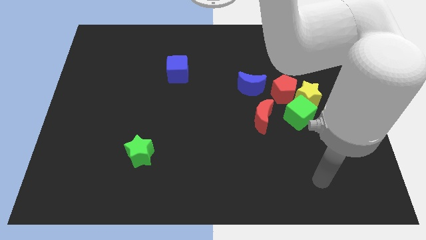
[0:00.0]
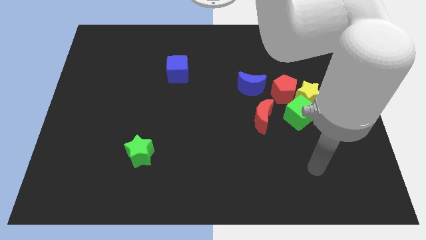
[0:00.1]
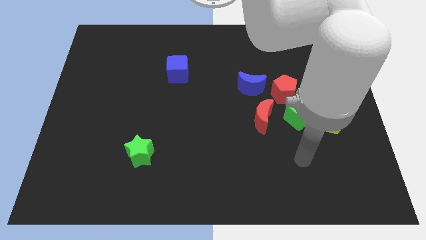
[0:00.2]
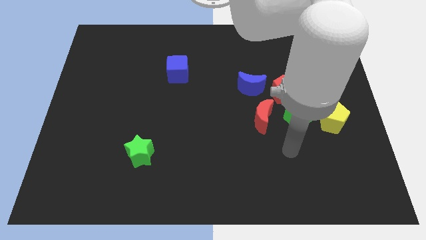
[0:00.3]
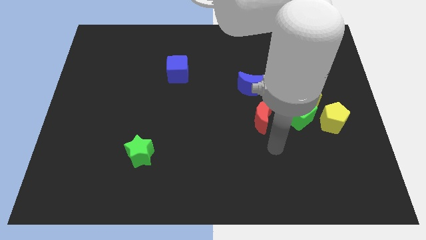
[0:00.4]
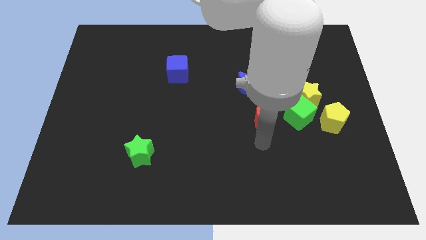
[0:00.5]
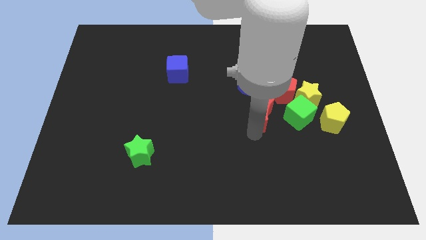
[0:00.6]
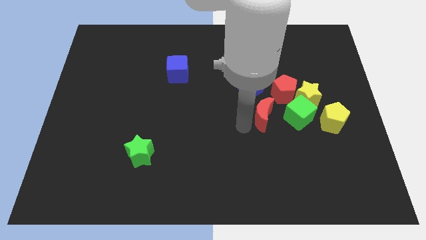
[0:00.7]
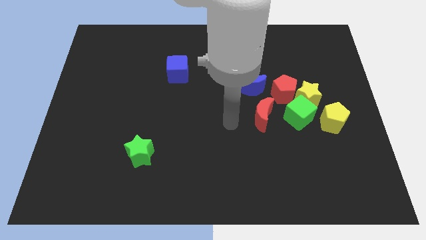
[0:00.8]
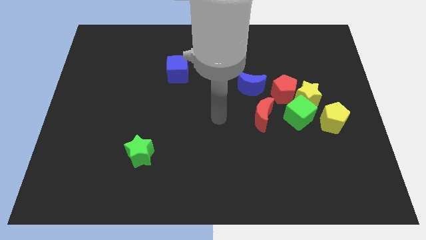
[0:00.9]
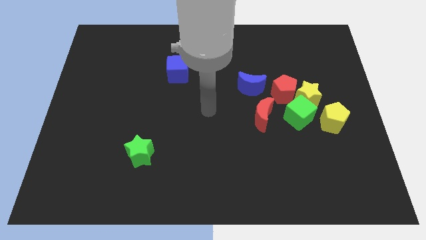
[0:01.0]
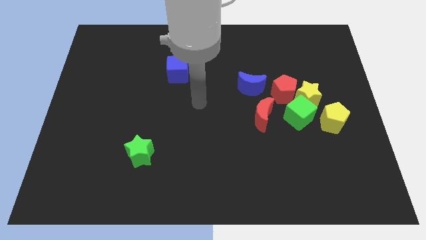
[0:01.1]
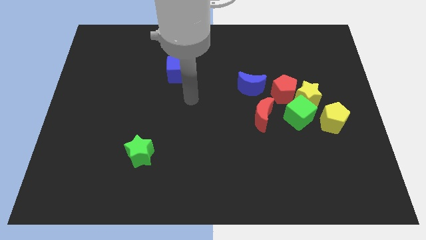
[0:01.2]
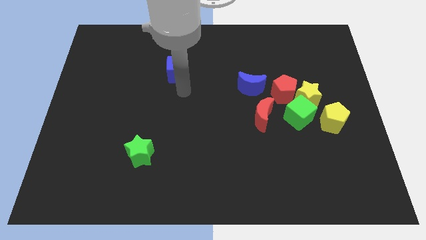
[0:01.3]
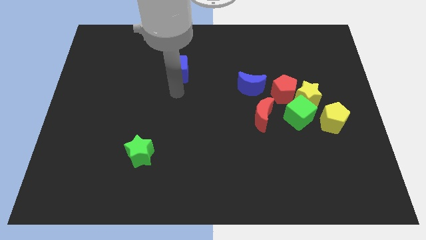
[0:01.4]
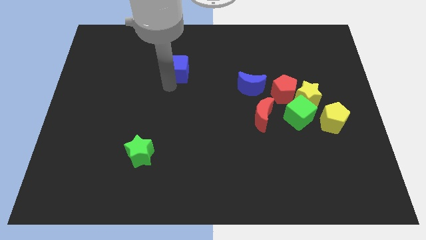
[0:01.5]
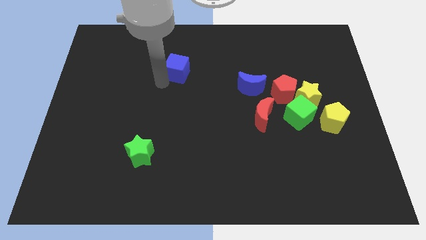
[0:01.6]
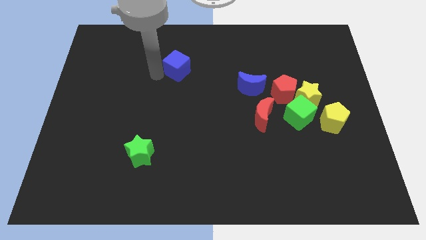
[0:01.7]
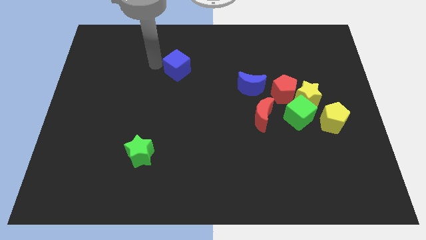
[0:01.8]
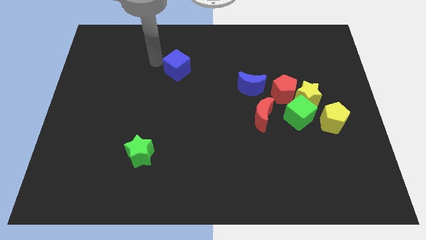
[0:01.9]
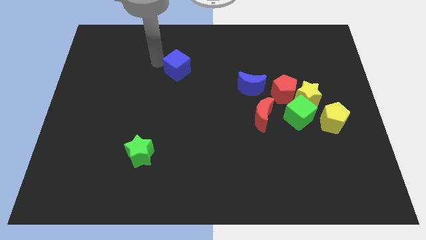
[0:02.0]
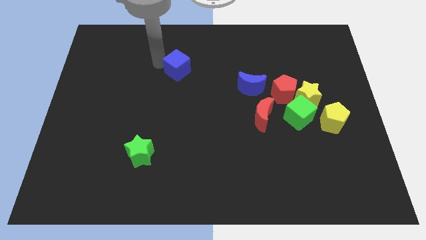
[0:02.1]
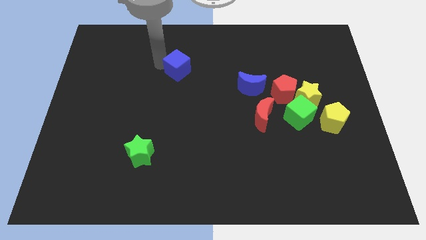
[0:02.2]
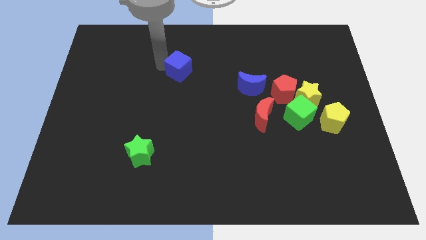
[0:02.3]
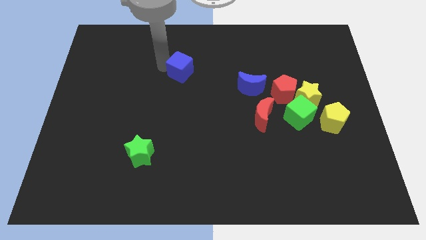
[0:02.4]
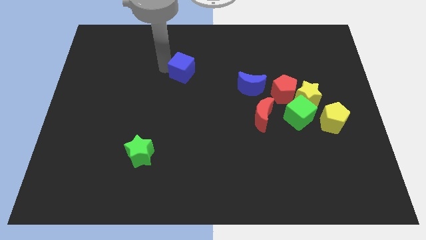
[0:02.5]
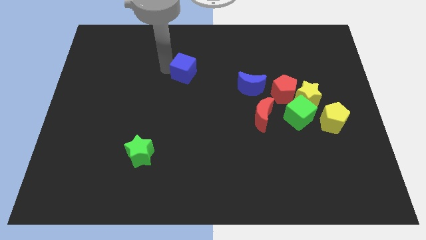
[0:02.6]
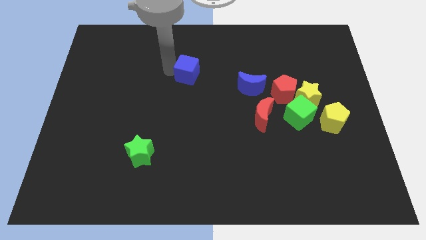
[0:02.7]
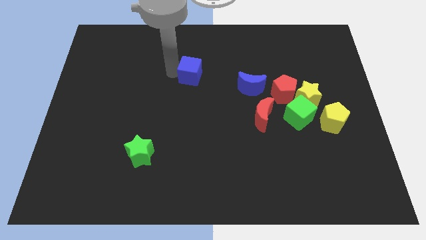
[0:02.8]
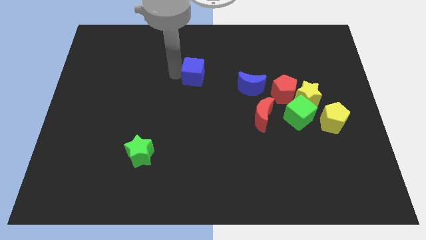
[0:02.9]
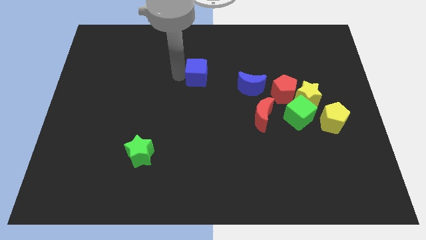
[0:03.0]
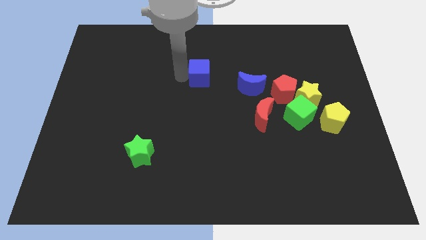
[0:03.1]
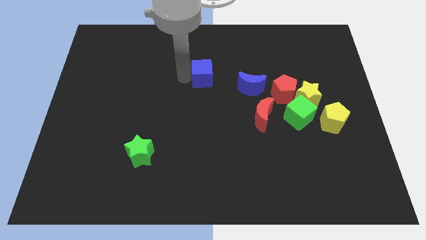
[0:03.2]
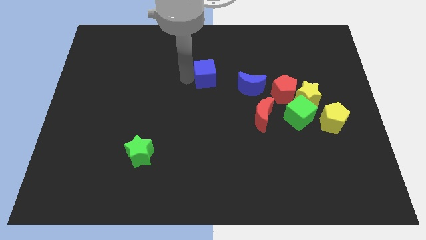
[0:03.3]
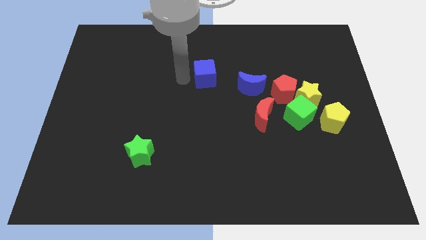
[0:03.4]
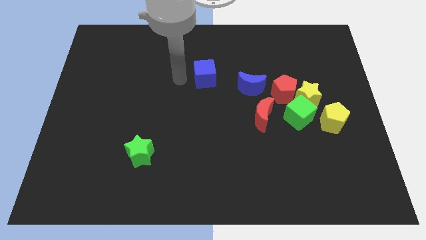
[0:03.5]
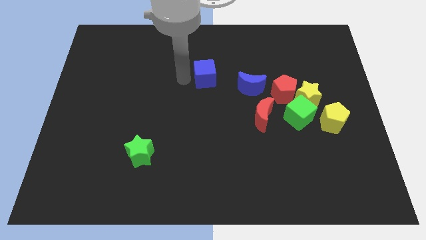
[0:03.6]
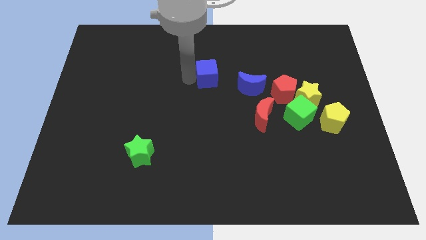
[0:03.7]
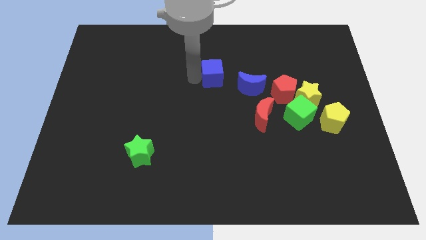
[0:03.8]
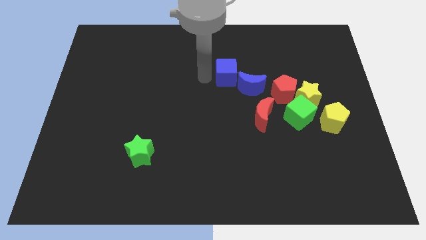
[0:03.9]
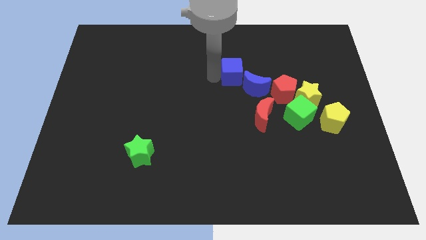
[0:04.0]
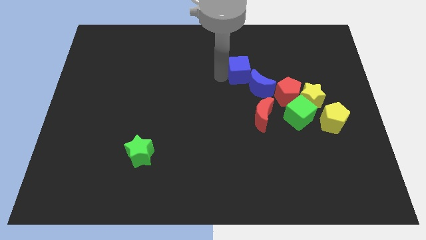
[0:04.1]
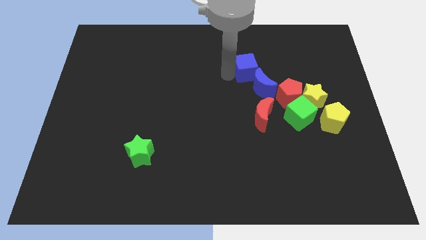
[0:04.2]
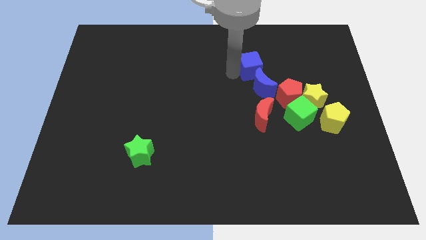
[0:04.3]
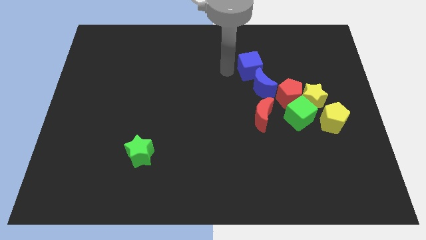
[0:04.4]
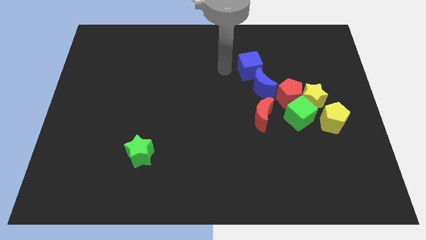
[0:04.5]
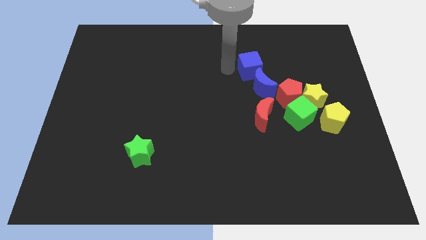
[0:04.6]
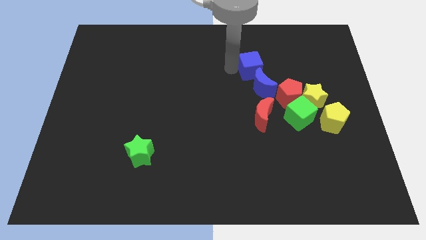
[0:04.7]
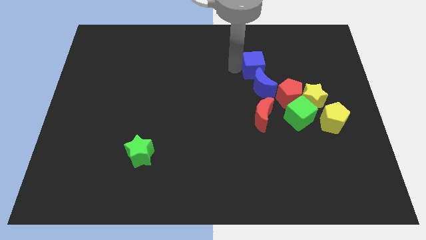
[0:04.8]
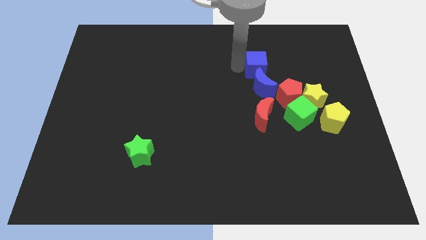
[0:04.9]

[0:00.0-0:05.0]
push the blue cube to the right

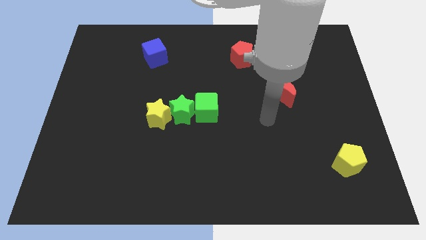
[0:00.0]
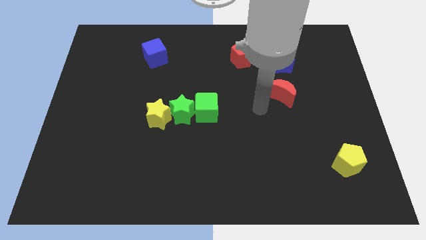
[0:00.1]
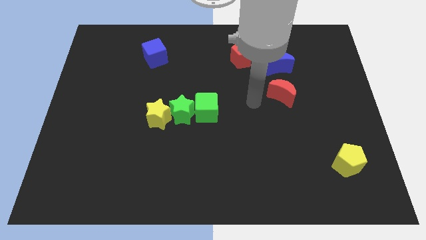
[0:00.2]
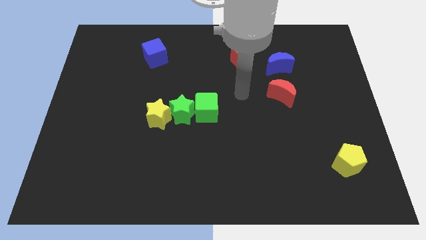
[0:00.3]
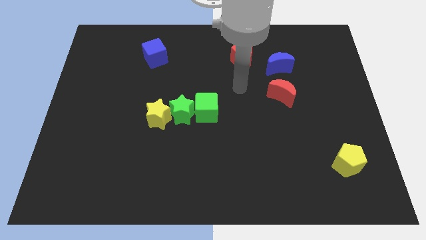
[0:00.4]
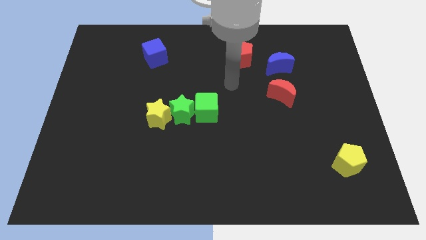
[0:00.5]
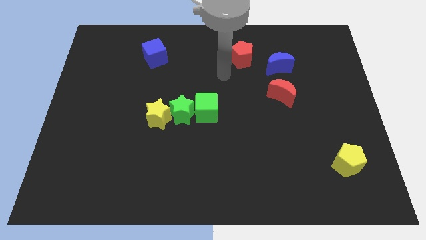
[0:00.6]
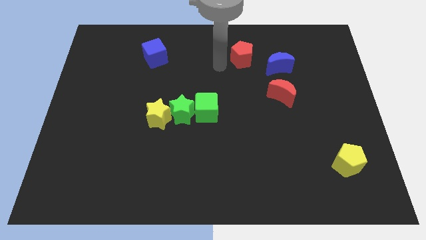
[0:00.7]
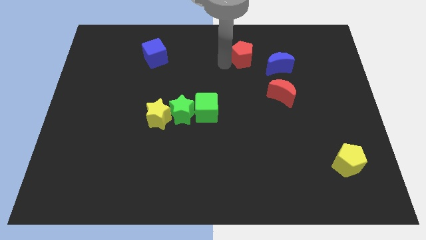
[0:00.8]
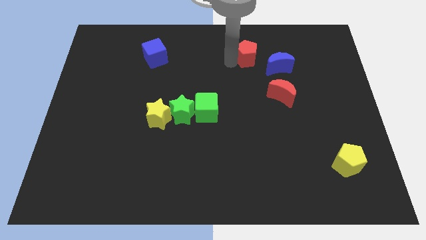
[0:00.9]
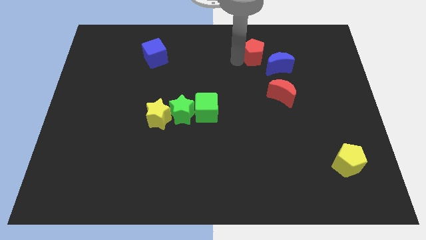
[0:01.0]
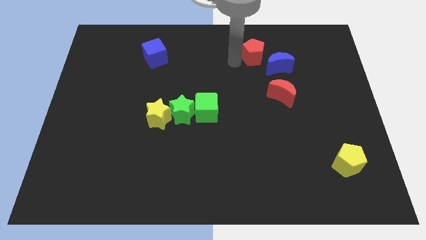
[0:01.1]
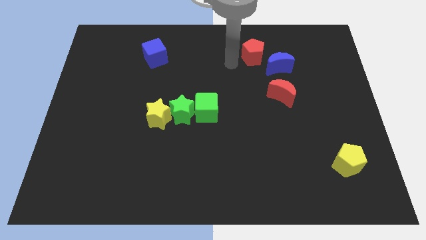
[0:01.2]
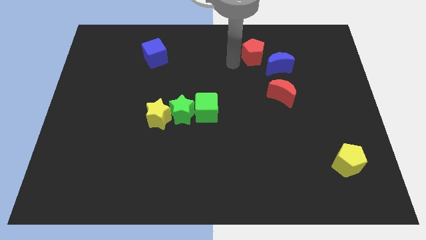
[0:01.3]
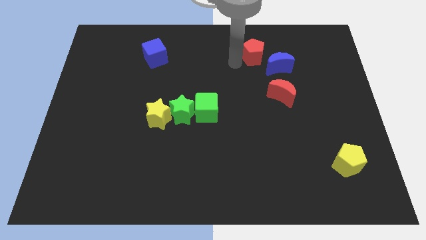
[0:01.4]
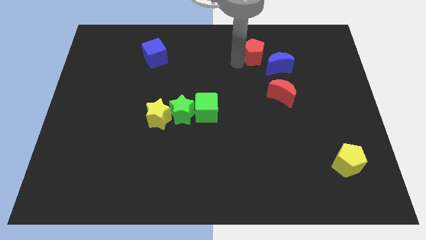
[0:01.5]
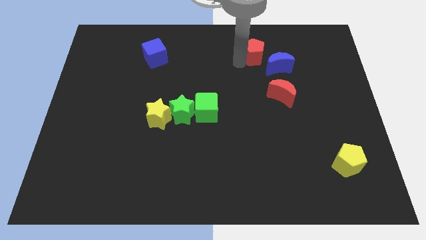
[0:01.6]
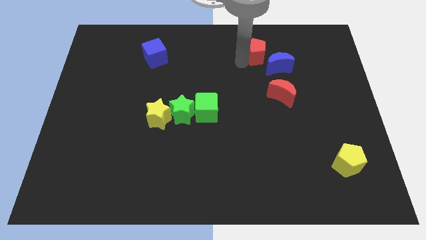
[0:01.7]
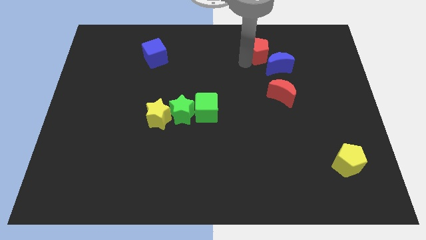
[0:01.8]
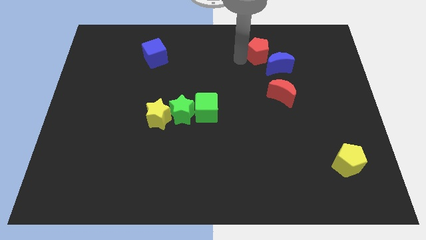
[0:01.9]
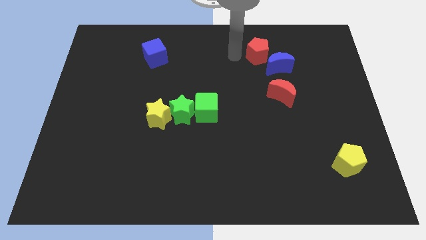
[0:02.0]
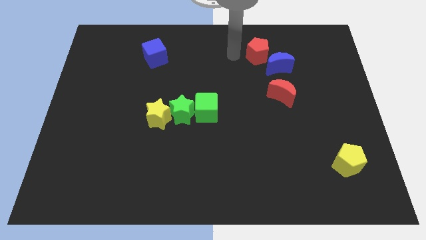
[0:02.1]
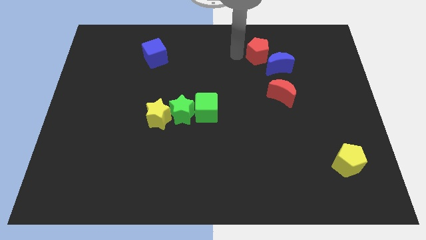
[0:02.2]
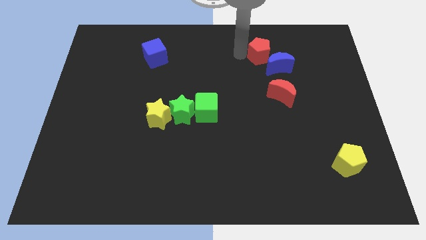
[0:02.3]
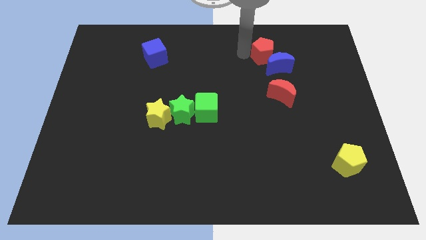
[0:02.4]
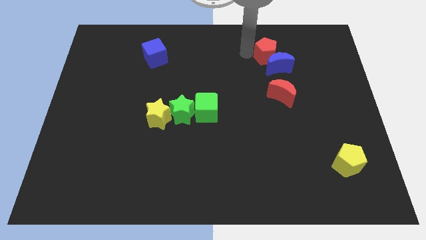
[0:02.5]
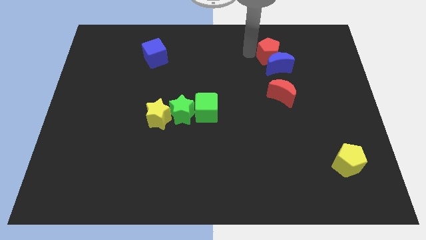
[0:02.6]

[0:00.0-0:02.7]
slide the red pentagon slightly to the right

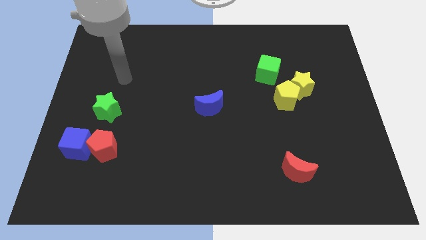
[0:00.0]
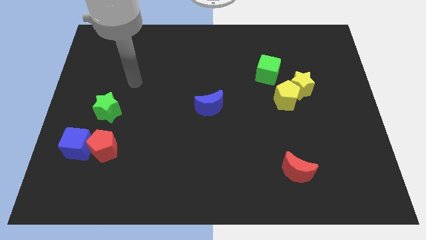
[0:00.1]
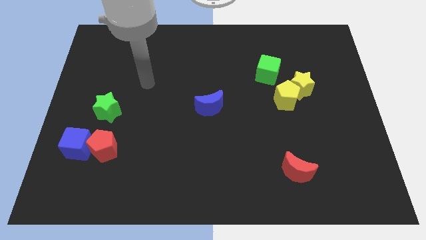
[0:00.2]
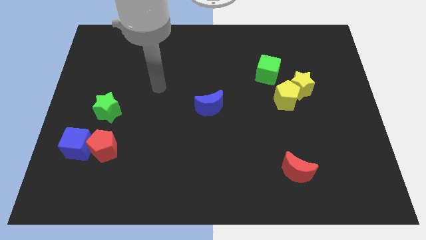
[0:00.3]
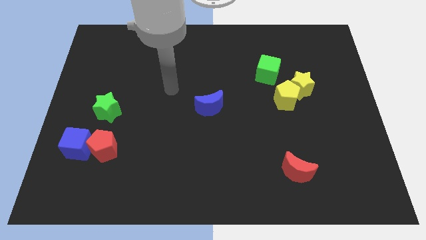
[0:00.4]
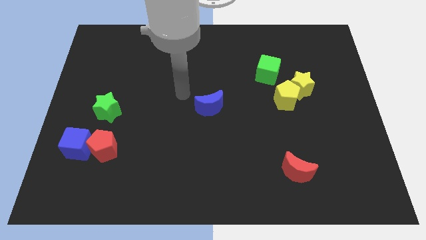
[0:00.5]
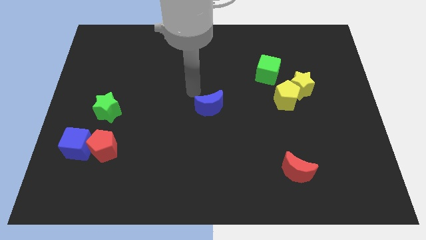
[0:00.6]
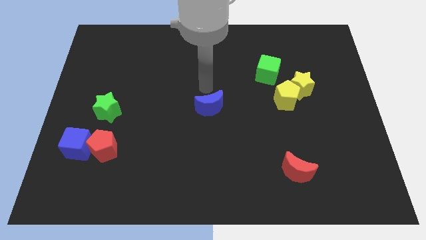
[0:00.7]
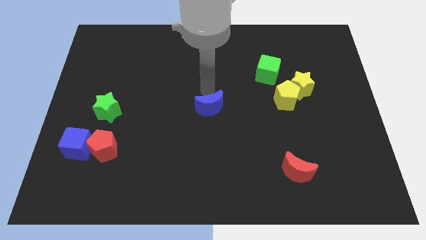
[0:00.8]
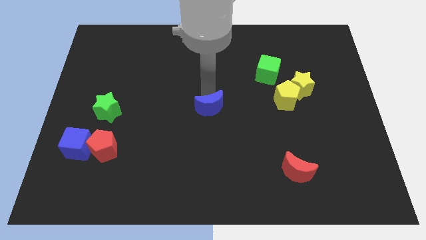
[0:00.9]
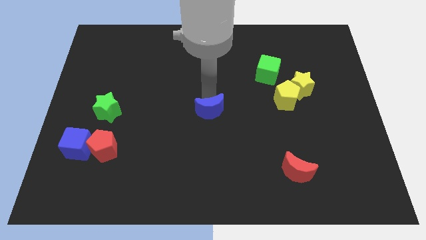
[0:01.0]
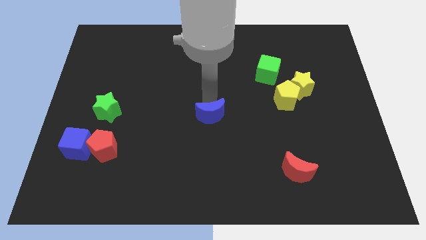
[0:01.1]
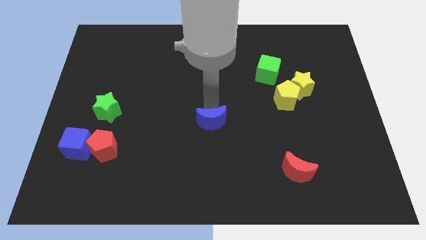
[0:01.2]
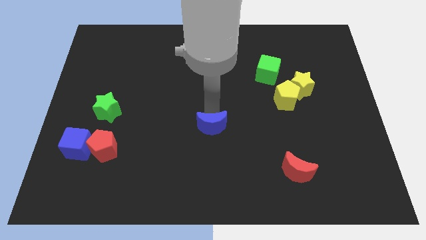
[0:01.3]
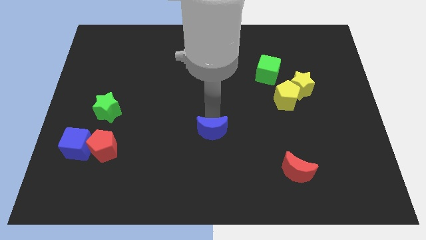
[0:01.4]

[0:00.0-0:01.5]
slightly slide the blue moon downwards
